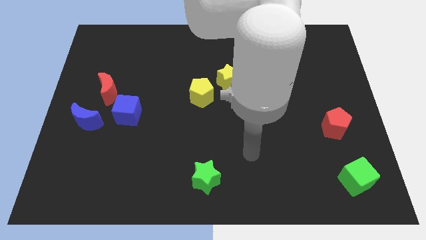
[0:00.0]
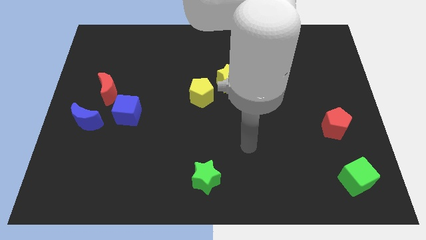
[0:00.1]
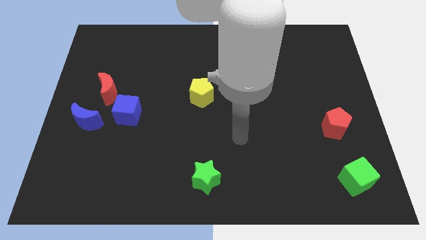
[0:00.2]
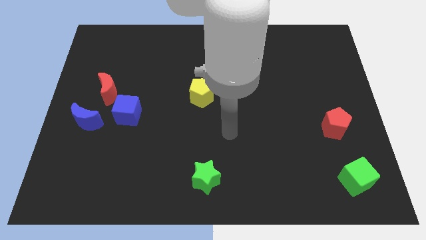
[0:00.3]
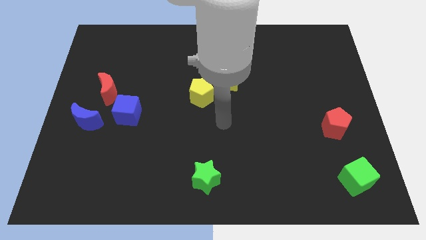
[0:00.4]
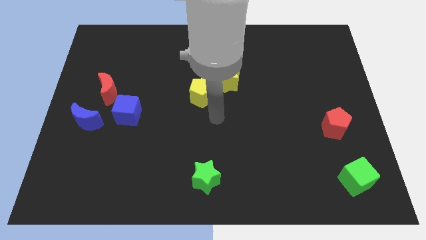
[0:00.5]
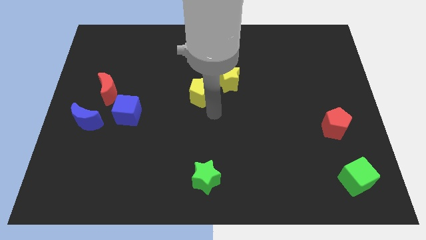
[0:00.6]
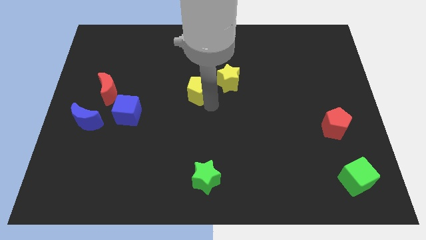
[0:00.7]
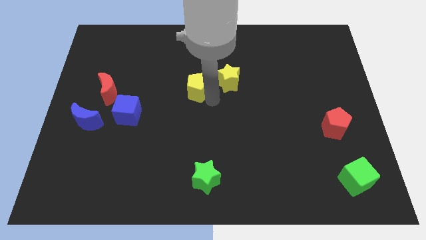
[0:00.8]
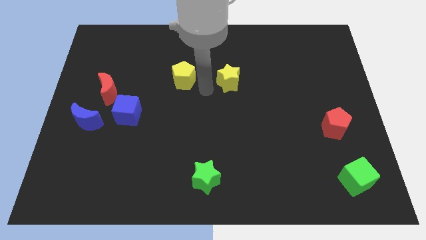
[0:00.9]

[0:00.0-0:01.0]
move the yellow star away from the yellow pentagon

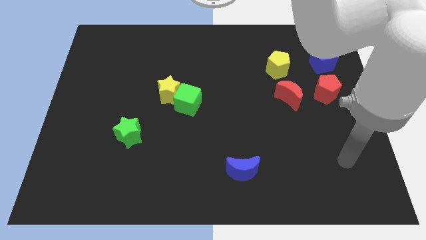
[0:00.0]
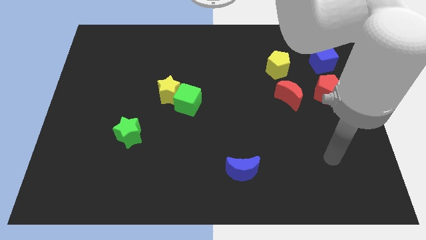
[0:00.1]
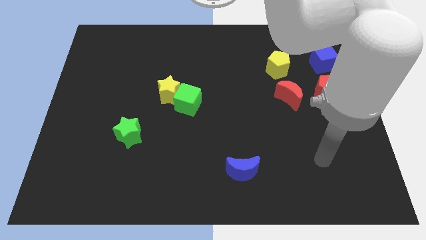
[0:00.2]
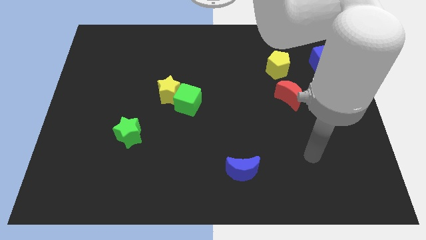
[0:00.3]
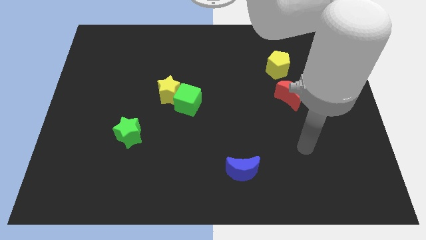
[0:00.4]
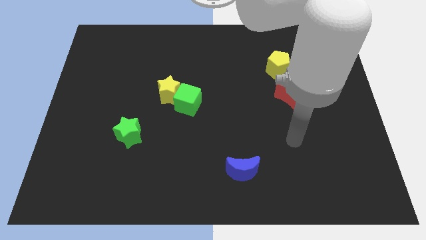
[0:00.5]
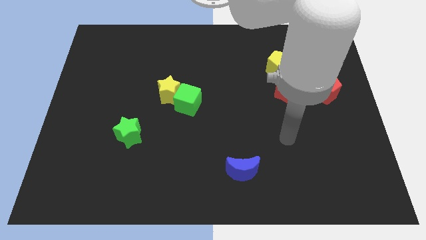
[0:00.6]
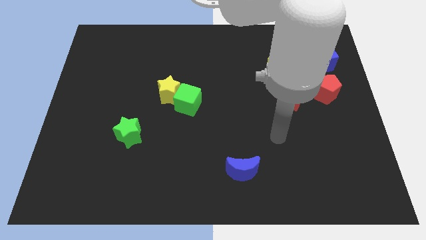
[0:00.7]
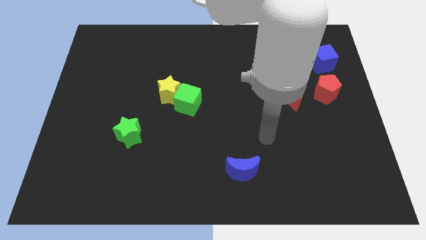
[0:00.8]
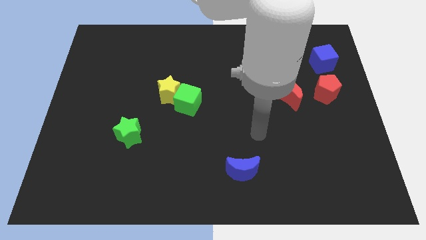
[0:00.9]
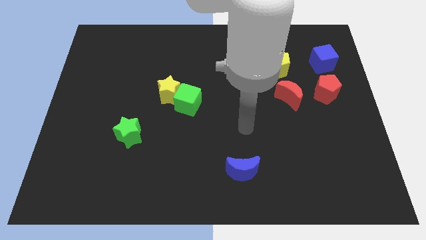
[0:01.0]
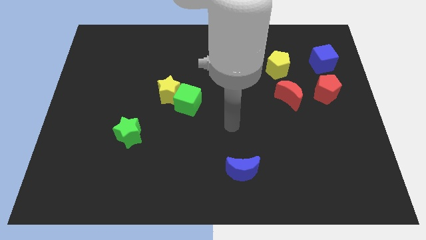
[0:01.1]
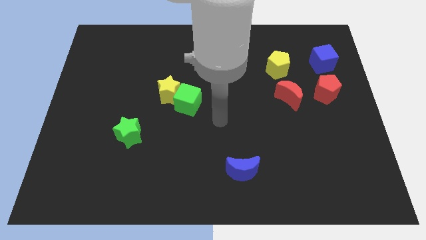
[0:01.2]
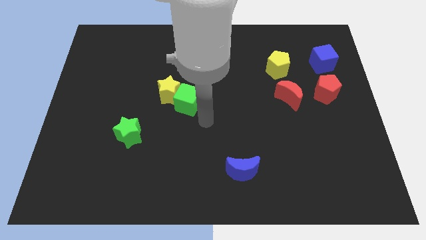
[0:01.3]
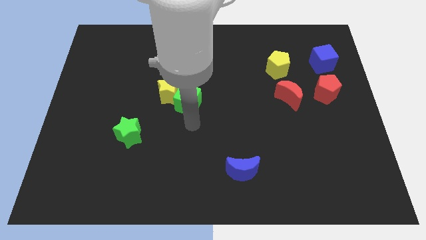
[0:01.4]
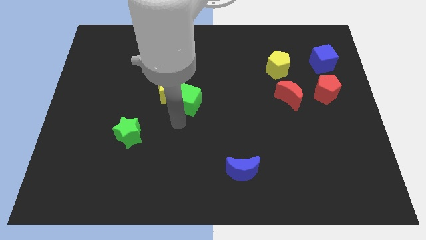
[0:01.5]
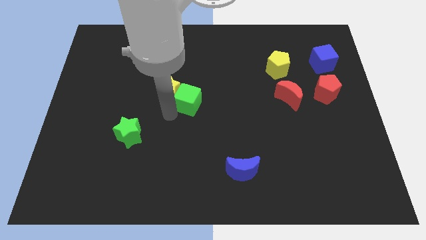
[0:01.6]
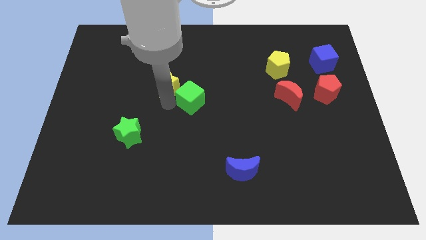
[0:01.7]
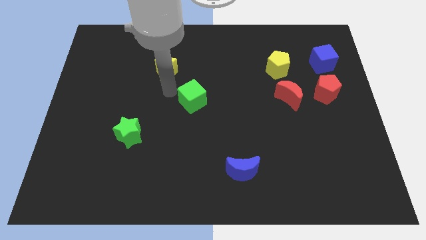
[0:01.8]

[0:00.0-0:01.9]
move the green cube away from the yellow star

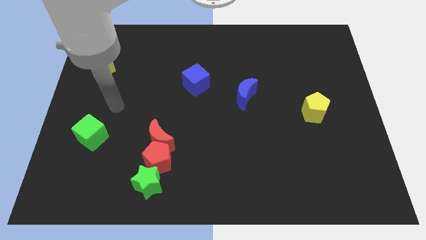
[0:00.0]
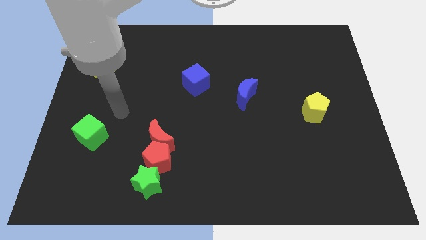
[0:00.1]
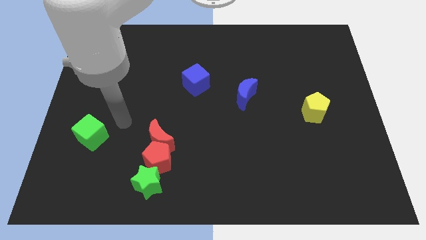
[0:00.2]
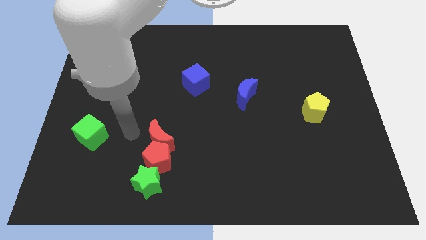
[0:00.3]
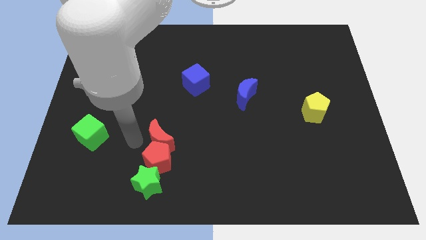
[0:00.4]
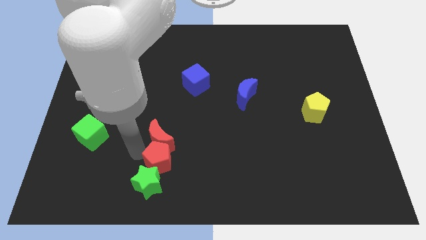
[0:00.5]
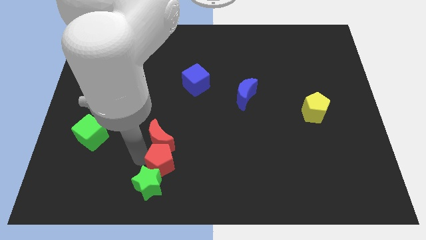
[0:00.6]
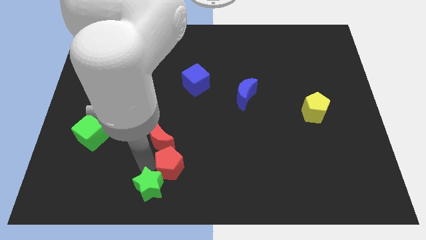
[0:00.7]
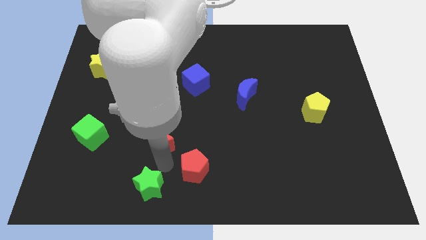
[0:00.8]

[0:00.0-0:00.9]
move the red moon away from the red pentagon

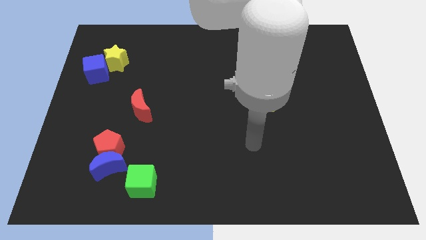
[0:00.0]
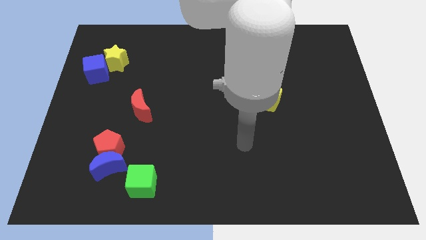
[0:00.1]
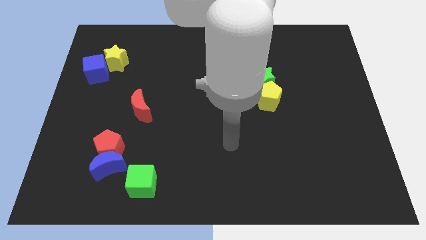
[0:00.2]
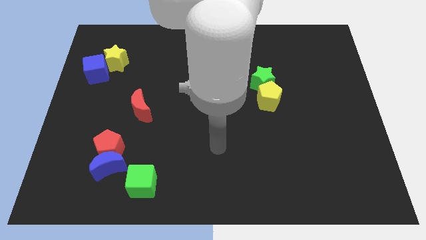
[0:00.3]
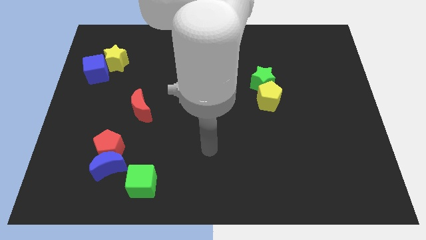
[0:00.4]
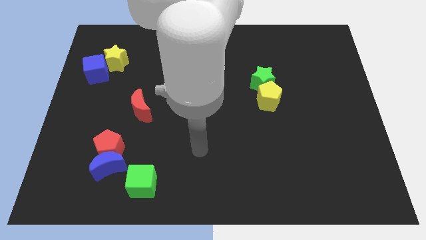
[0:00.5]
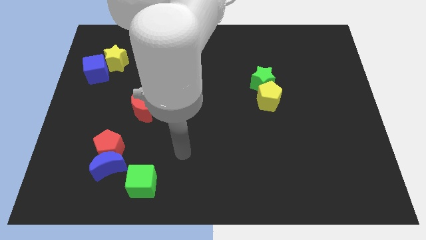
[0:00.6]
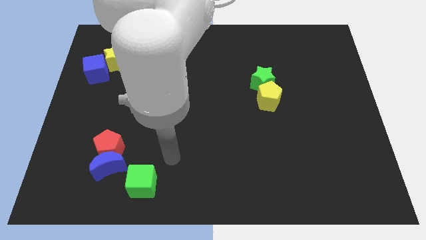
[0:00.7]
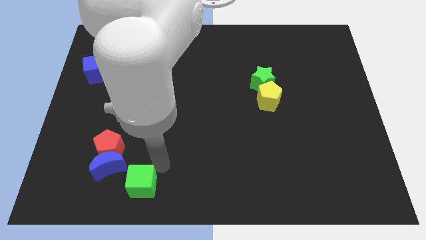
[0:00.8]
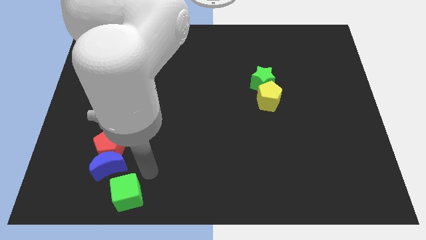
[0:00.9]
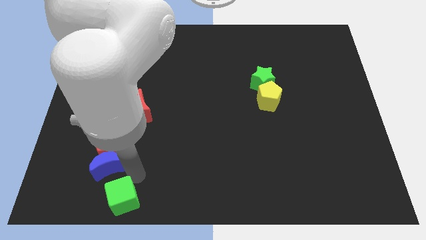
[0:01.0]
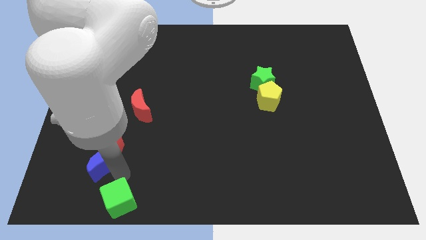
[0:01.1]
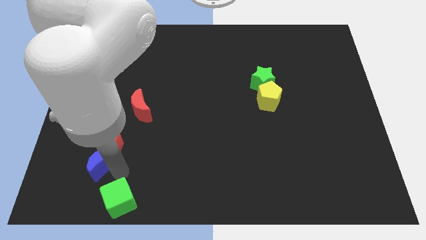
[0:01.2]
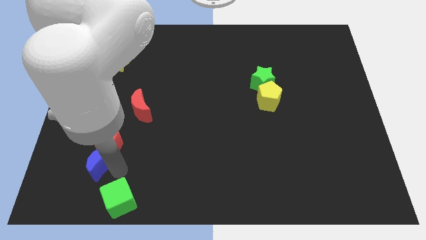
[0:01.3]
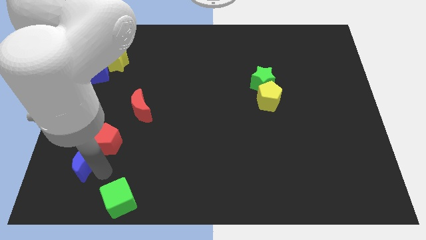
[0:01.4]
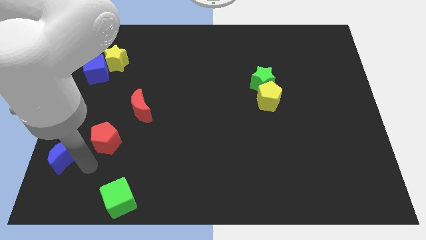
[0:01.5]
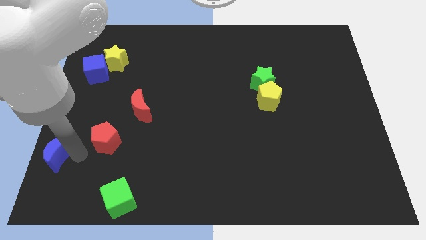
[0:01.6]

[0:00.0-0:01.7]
pull the red pentagon apart from the blue moon

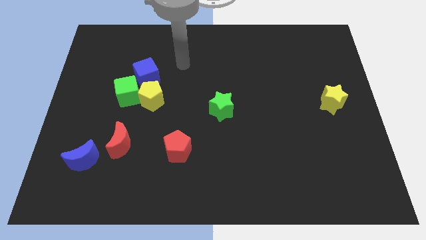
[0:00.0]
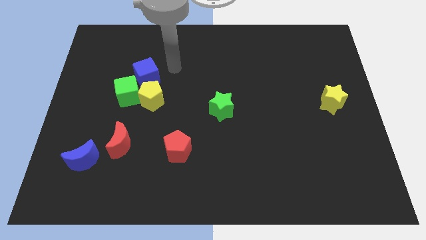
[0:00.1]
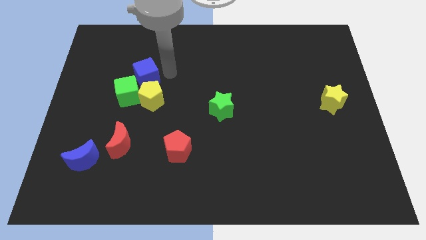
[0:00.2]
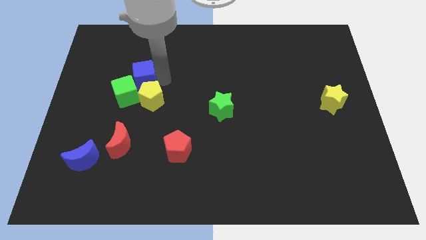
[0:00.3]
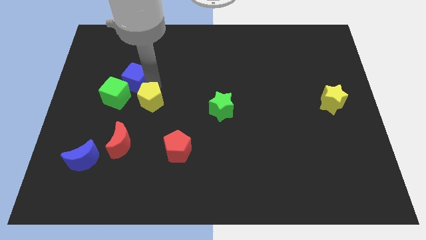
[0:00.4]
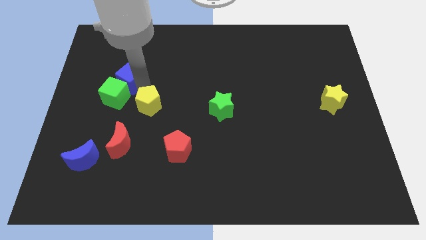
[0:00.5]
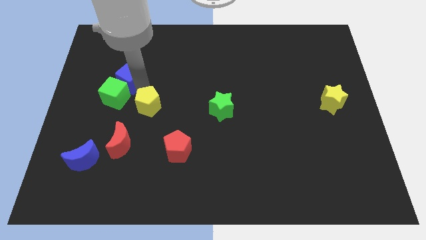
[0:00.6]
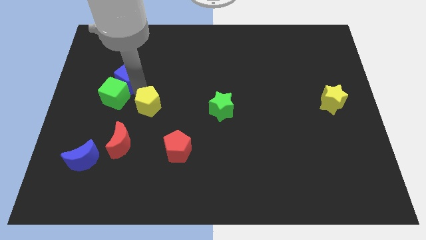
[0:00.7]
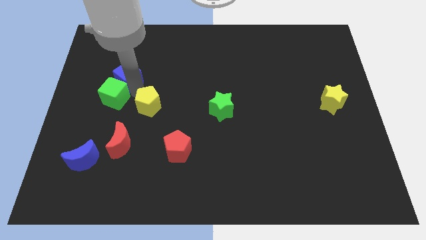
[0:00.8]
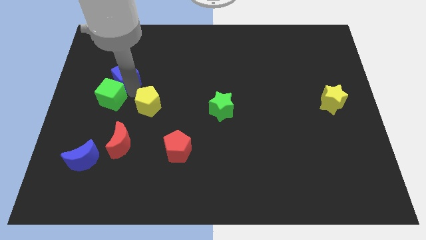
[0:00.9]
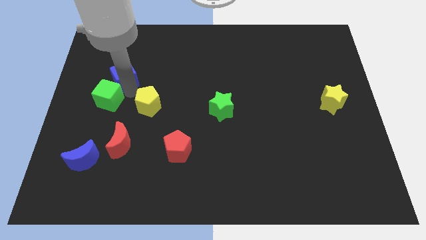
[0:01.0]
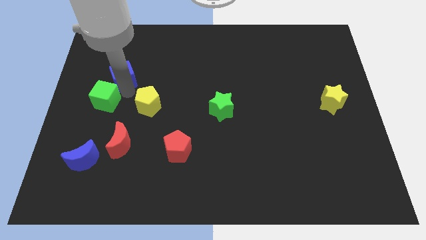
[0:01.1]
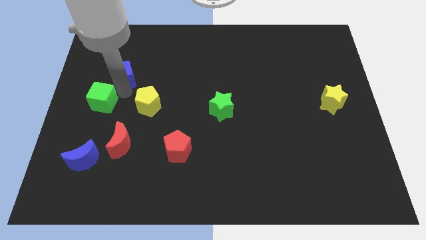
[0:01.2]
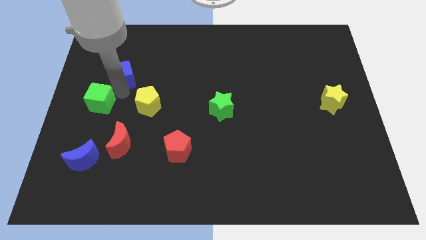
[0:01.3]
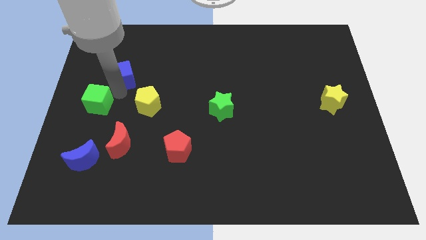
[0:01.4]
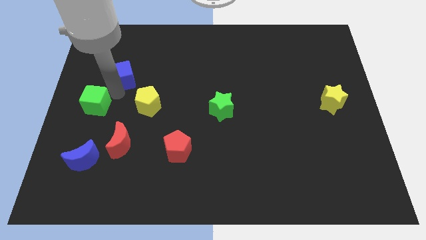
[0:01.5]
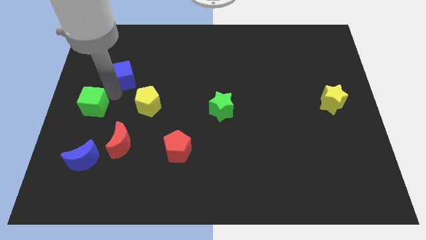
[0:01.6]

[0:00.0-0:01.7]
move the green cube away from the yellow pentagon and blue cube

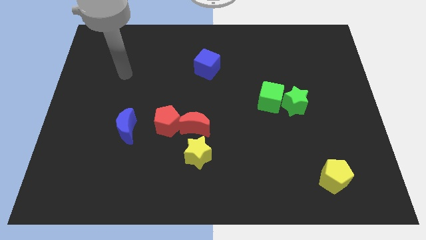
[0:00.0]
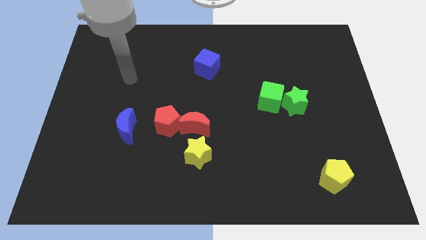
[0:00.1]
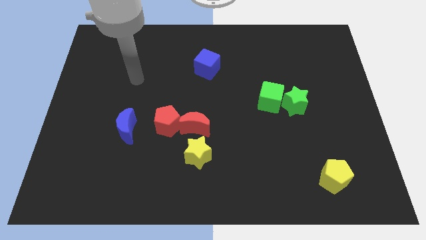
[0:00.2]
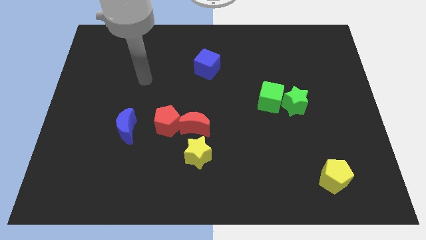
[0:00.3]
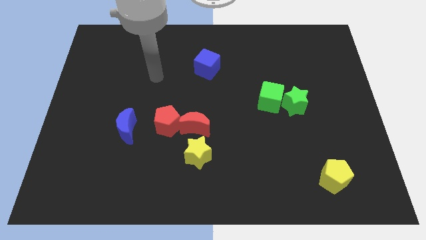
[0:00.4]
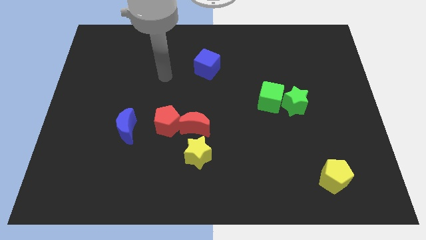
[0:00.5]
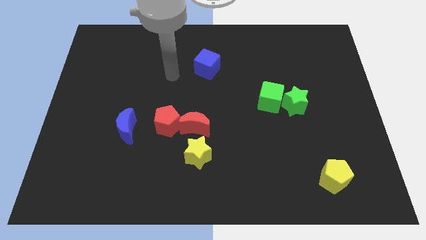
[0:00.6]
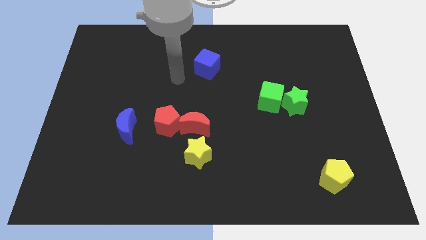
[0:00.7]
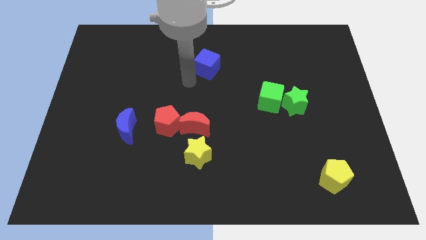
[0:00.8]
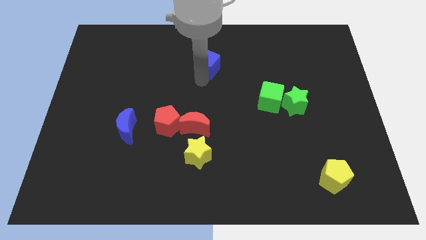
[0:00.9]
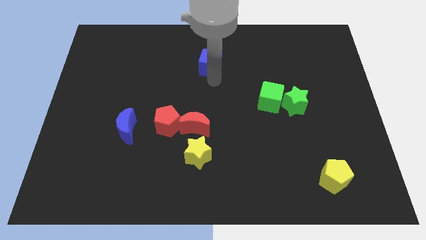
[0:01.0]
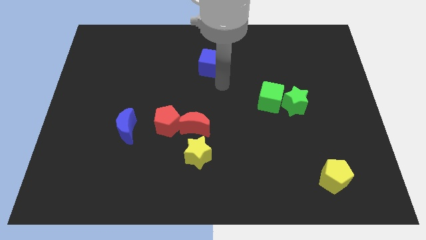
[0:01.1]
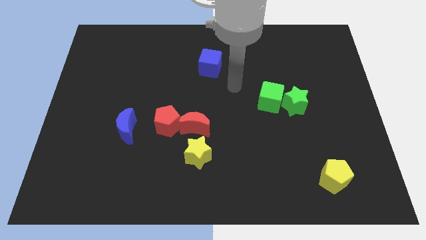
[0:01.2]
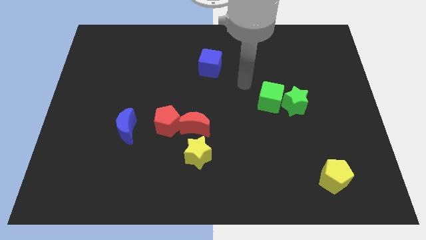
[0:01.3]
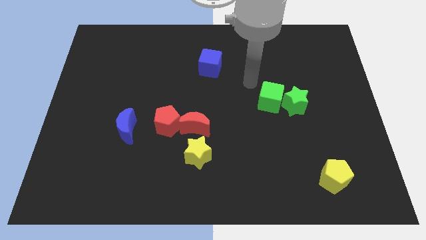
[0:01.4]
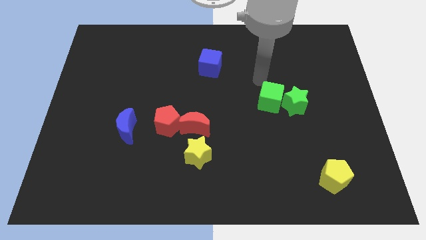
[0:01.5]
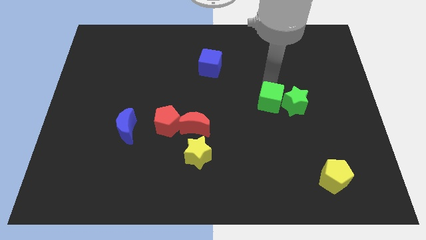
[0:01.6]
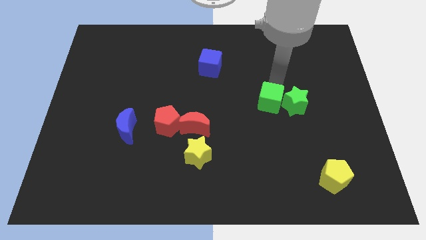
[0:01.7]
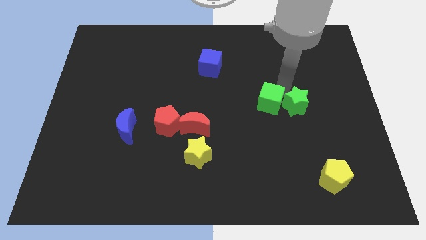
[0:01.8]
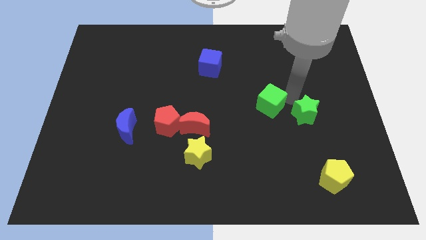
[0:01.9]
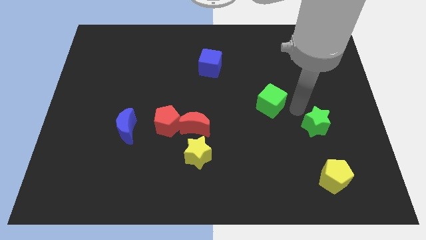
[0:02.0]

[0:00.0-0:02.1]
move the green cube away from the green star

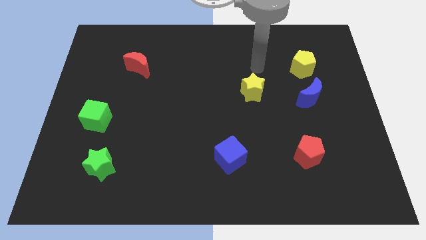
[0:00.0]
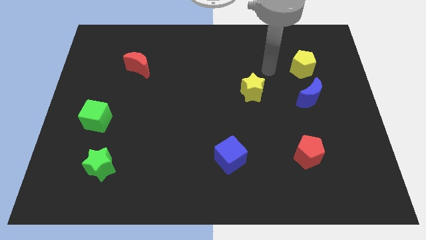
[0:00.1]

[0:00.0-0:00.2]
pull the blue moon apart from the yellow pentagon
